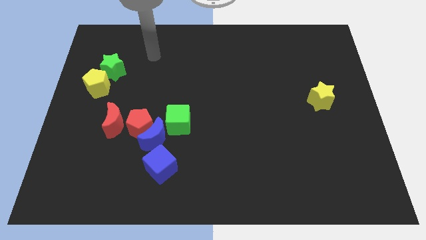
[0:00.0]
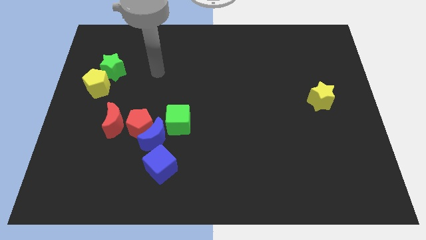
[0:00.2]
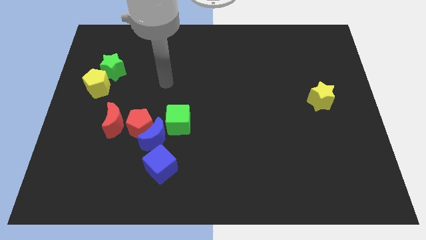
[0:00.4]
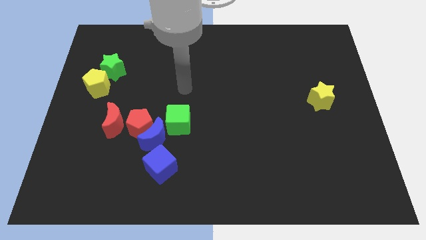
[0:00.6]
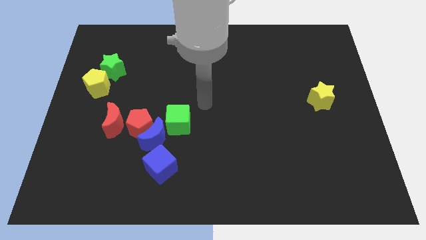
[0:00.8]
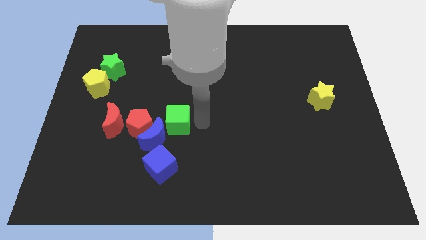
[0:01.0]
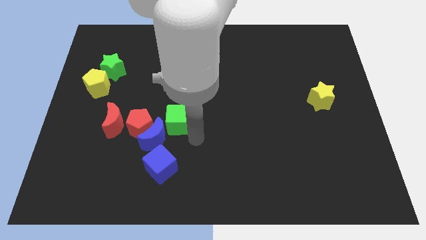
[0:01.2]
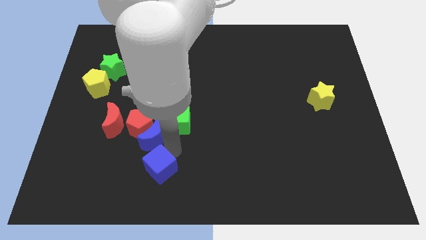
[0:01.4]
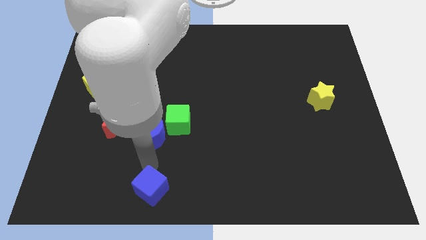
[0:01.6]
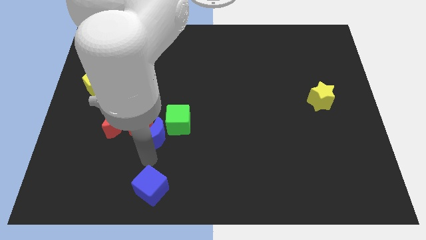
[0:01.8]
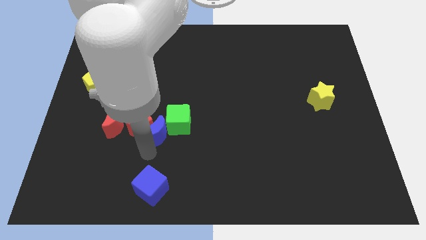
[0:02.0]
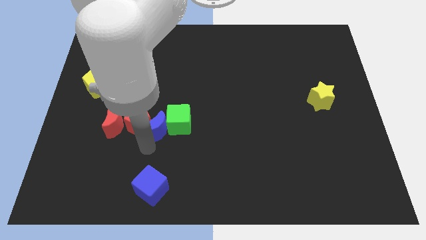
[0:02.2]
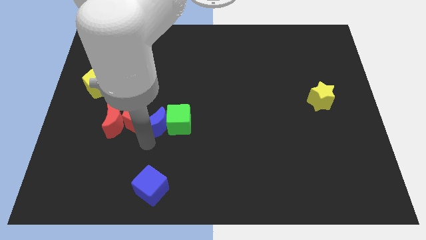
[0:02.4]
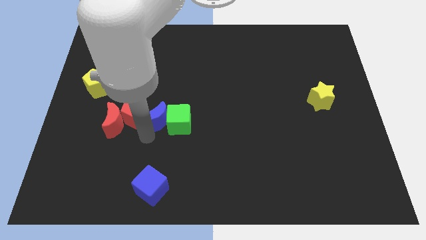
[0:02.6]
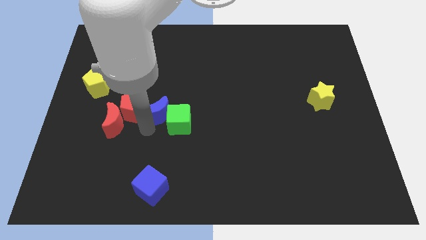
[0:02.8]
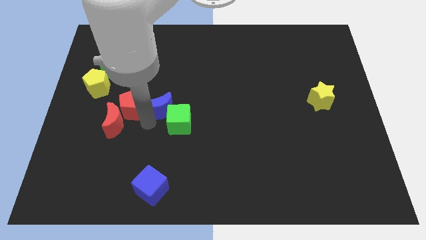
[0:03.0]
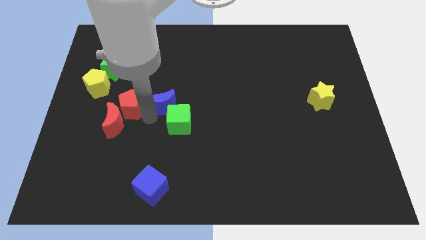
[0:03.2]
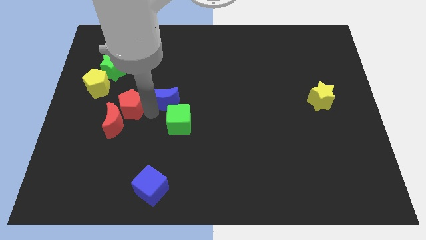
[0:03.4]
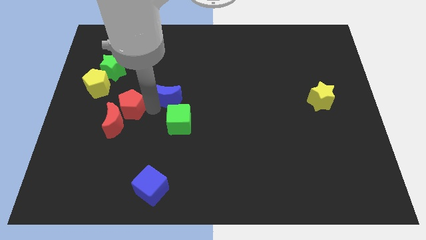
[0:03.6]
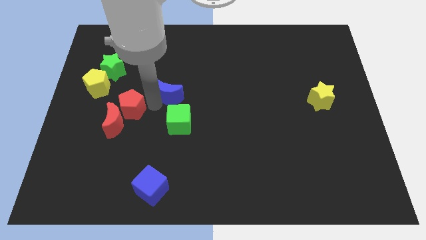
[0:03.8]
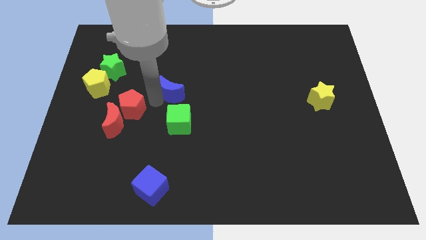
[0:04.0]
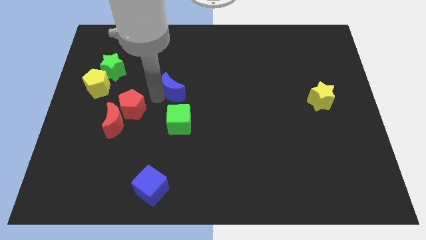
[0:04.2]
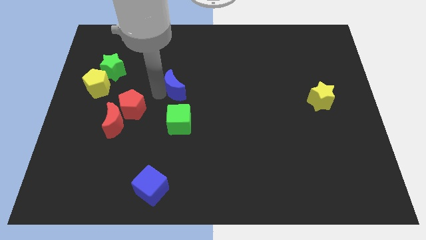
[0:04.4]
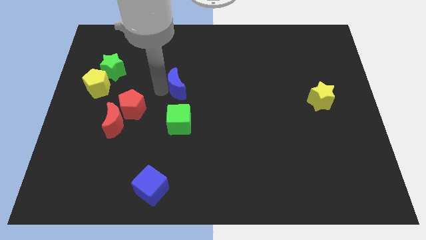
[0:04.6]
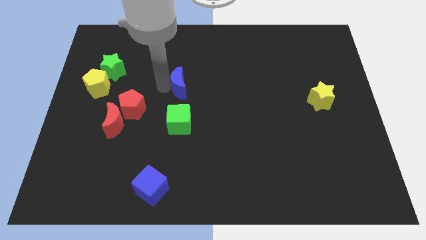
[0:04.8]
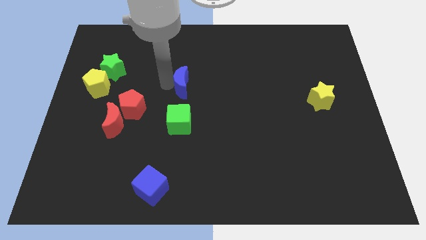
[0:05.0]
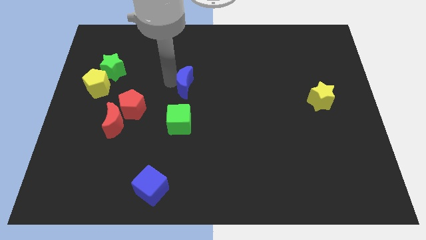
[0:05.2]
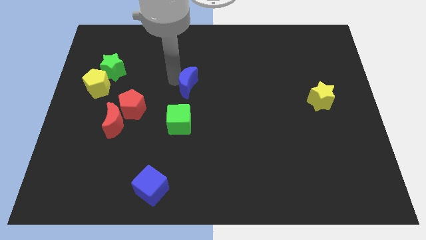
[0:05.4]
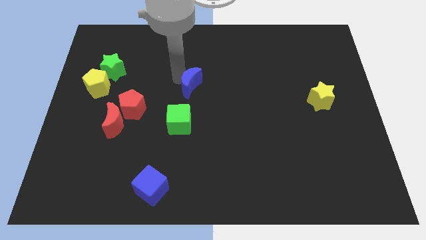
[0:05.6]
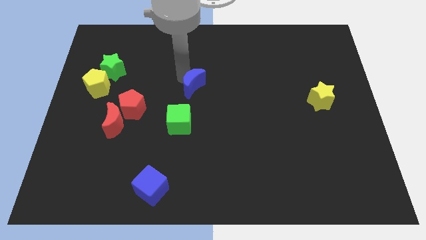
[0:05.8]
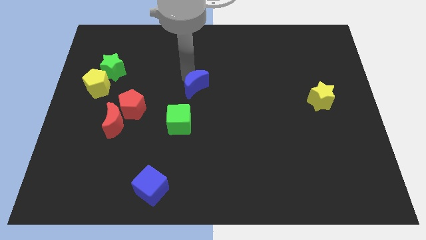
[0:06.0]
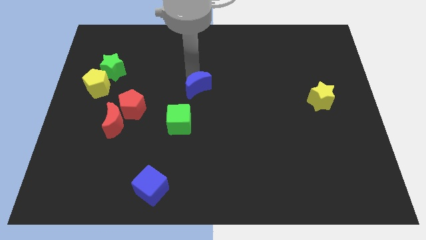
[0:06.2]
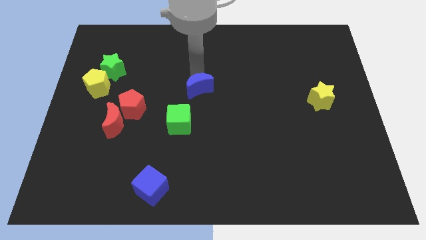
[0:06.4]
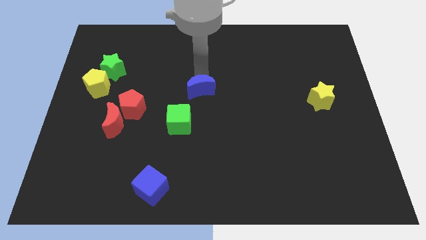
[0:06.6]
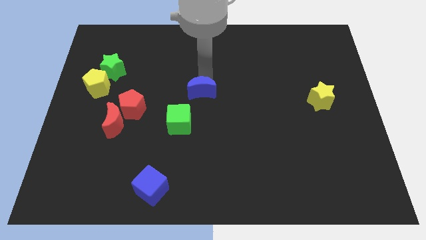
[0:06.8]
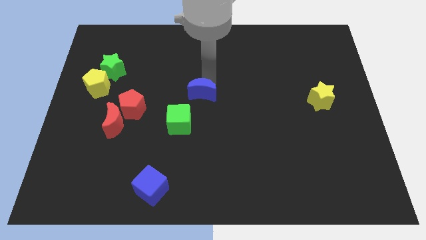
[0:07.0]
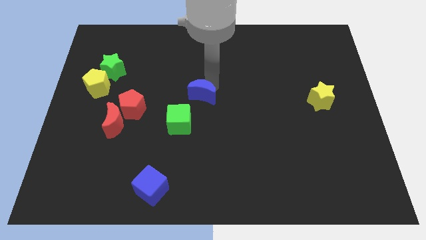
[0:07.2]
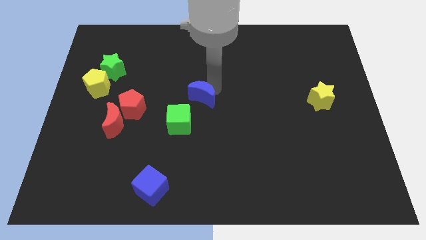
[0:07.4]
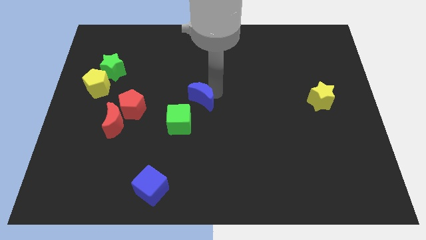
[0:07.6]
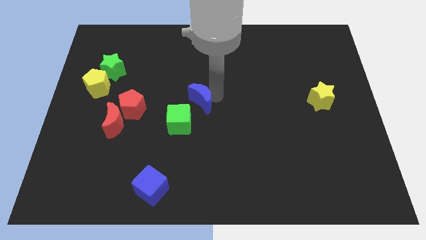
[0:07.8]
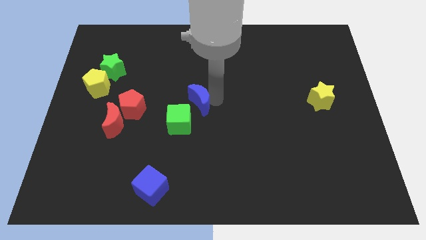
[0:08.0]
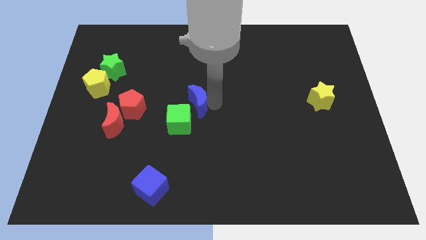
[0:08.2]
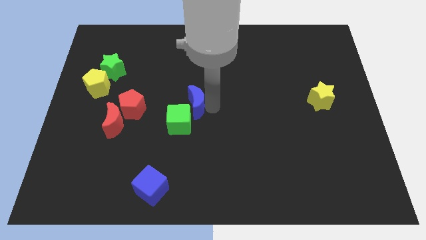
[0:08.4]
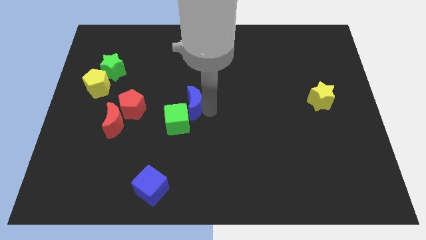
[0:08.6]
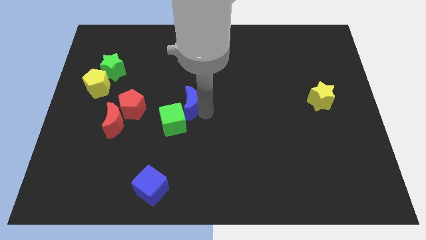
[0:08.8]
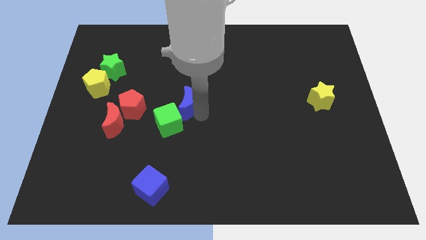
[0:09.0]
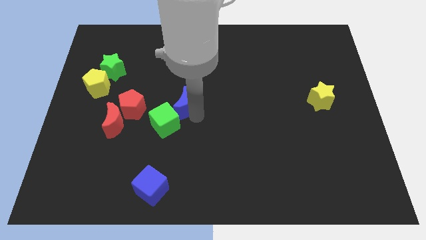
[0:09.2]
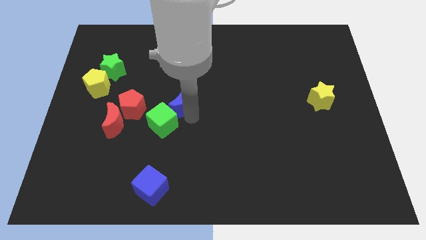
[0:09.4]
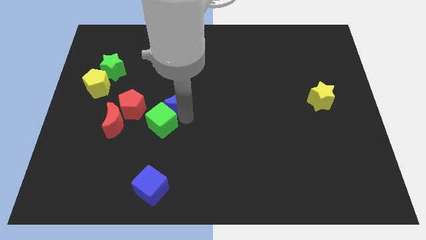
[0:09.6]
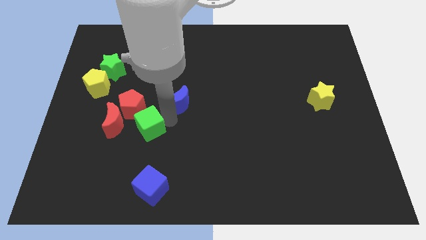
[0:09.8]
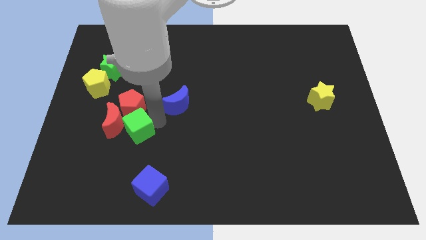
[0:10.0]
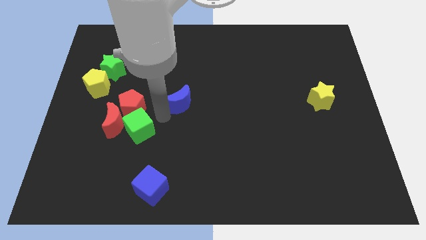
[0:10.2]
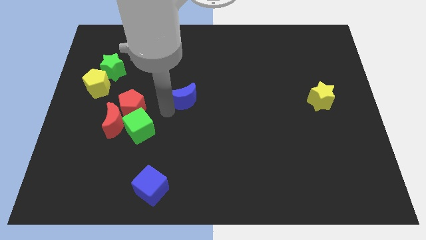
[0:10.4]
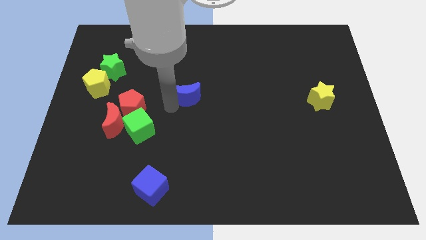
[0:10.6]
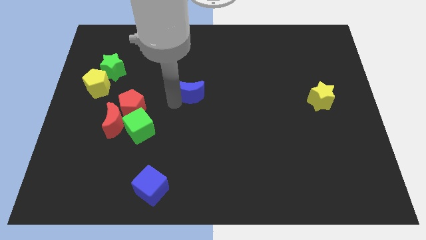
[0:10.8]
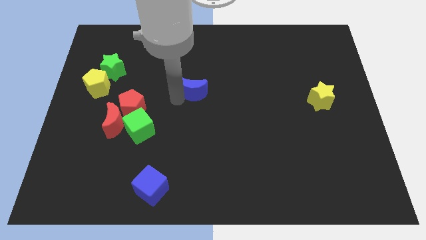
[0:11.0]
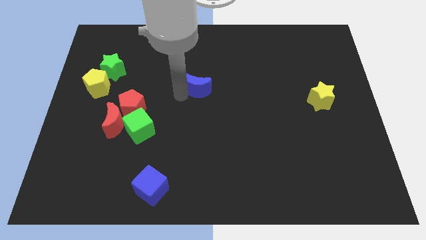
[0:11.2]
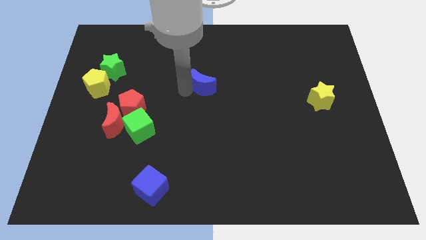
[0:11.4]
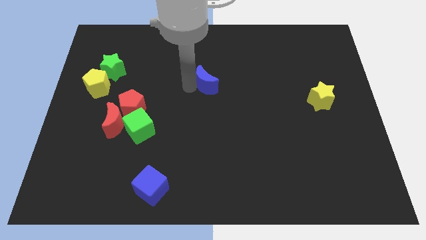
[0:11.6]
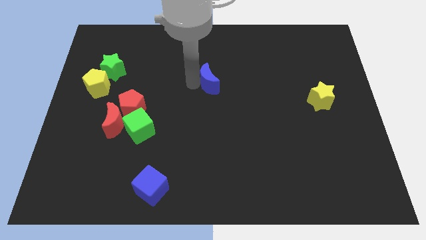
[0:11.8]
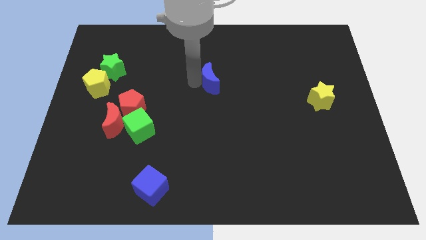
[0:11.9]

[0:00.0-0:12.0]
push the blue moon up and right

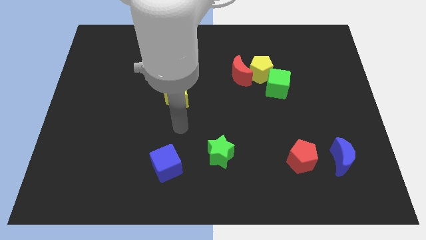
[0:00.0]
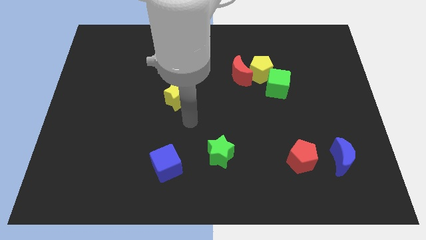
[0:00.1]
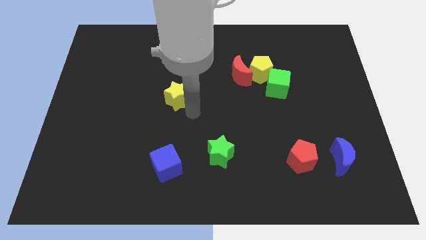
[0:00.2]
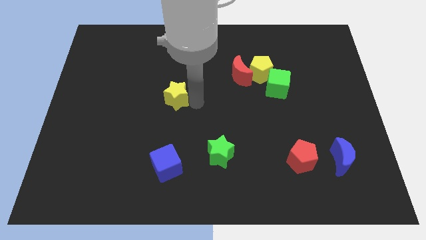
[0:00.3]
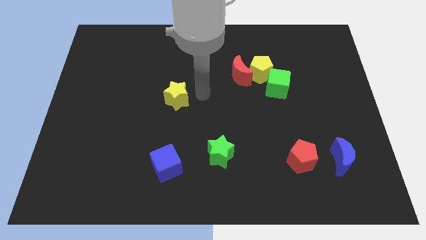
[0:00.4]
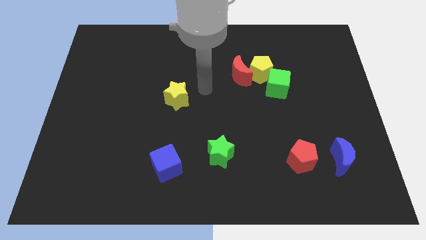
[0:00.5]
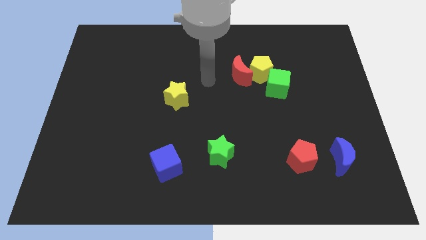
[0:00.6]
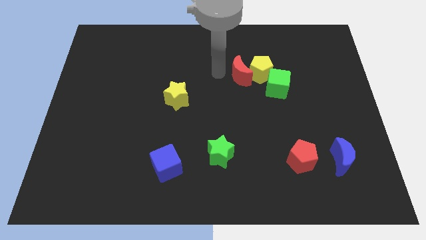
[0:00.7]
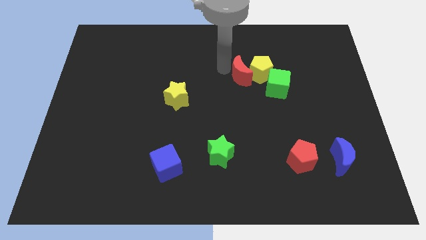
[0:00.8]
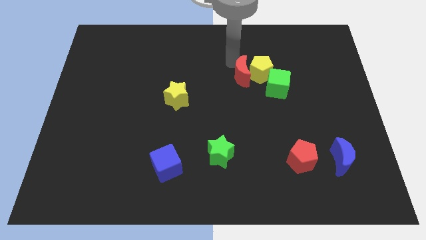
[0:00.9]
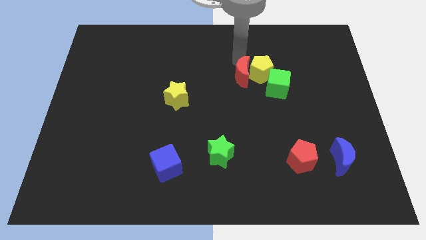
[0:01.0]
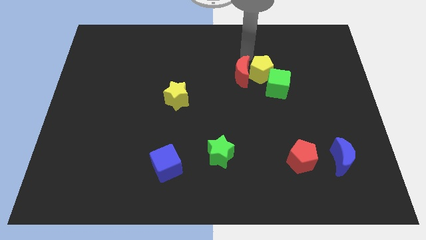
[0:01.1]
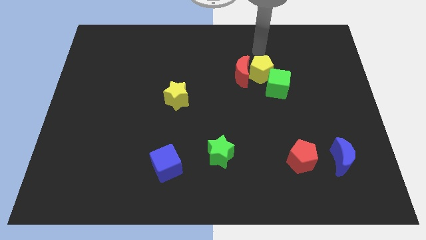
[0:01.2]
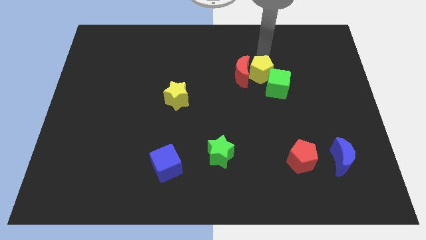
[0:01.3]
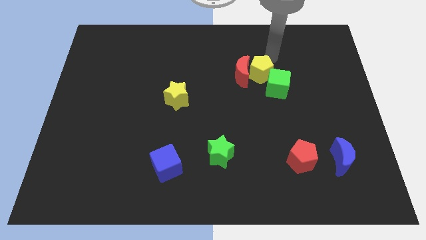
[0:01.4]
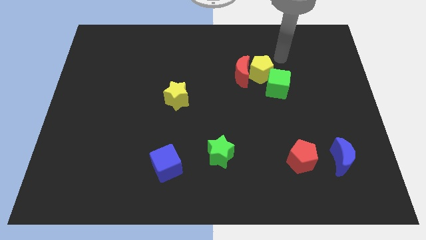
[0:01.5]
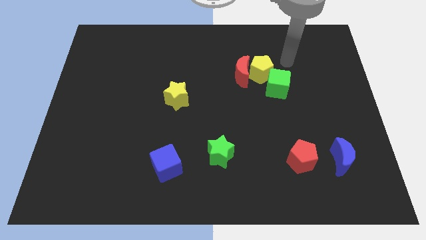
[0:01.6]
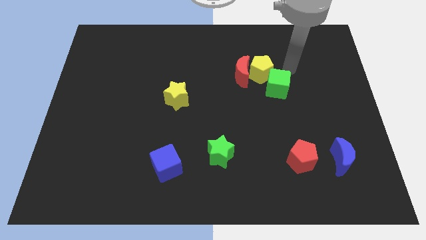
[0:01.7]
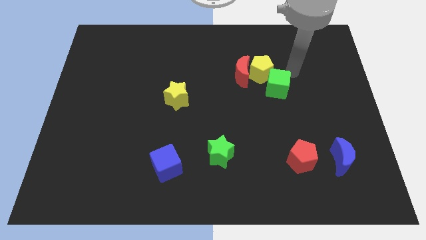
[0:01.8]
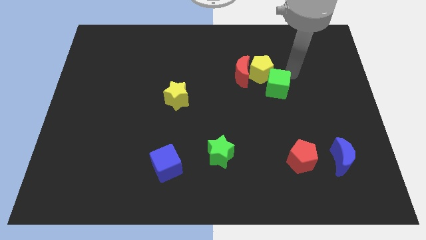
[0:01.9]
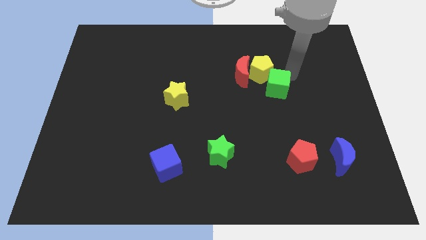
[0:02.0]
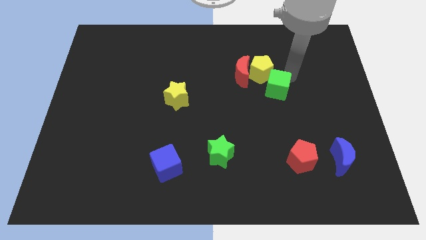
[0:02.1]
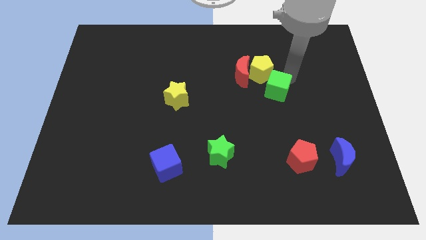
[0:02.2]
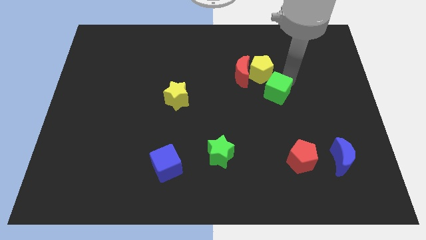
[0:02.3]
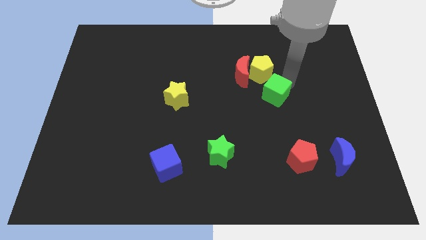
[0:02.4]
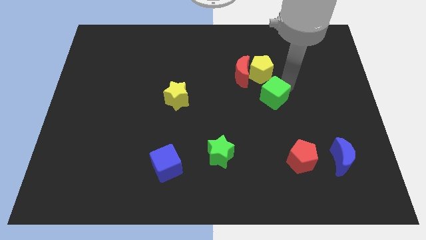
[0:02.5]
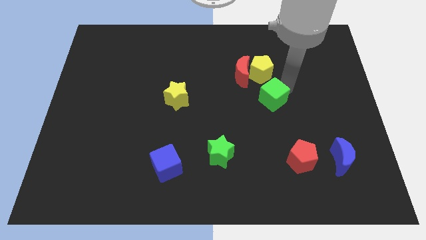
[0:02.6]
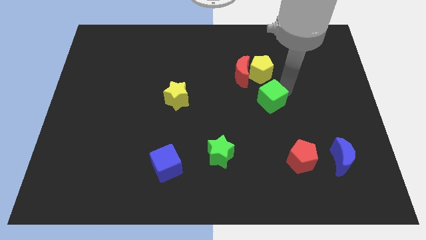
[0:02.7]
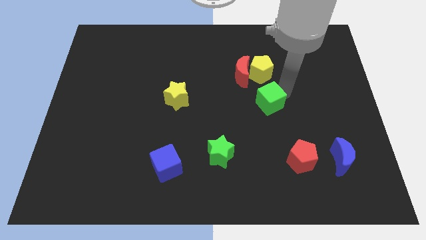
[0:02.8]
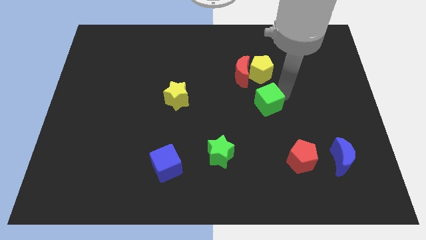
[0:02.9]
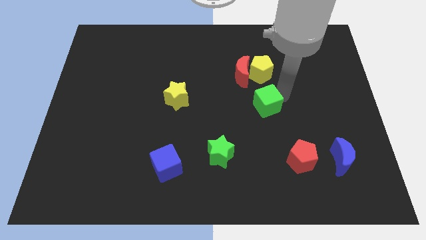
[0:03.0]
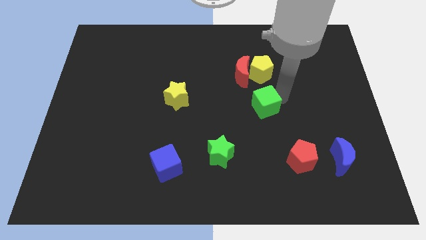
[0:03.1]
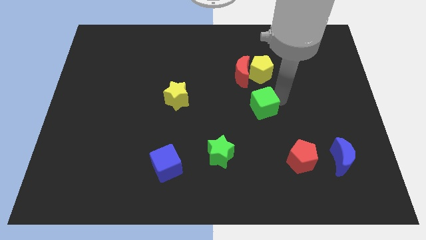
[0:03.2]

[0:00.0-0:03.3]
slide the green cube downwards and then to the left a bit
